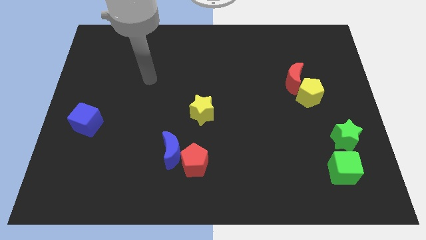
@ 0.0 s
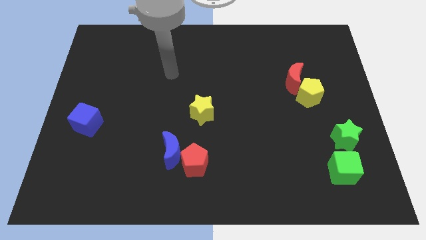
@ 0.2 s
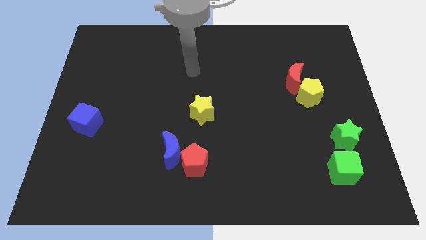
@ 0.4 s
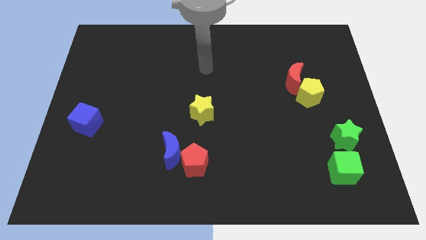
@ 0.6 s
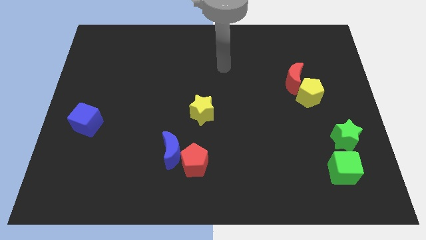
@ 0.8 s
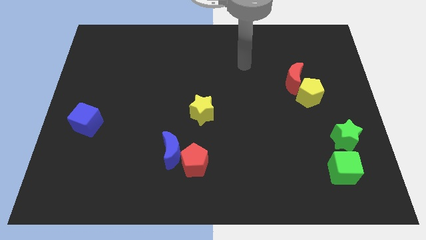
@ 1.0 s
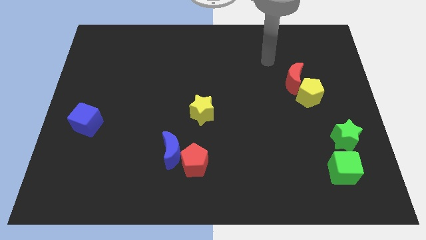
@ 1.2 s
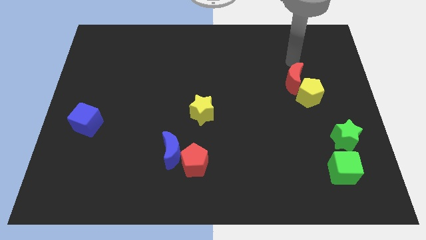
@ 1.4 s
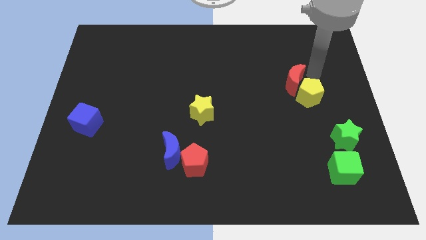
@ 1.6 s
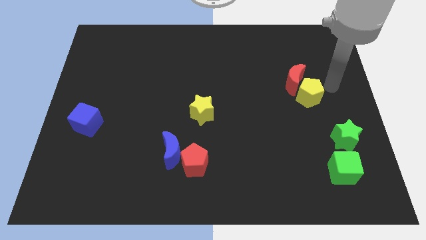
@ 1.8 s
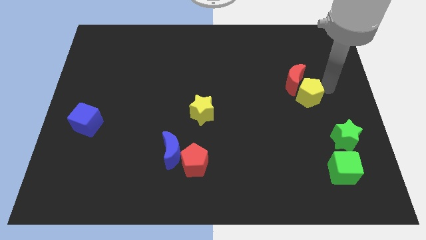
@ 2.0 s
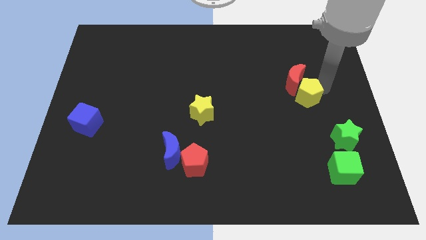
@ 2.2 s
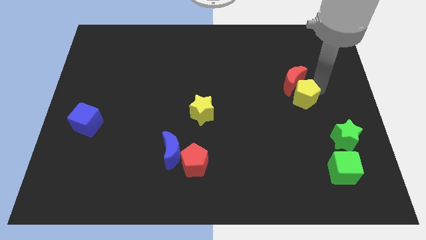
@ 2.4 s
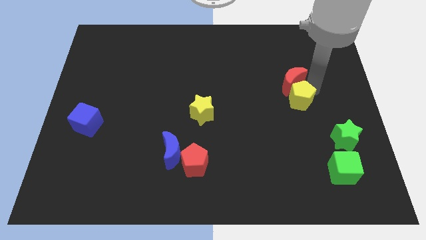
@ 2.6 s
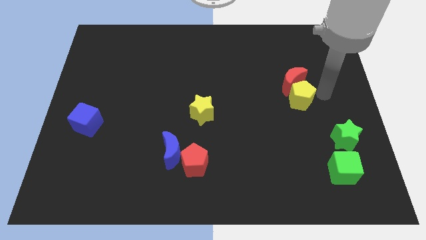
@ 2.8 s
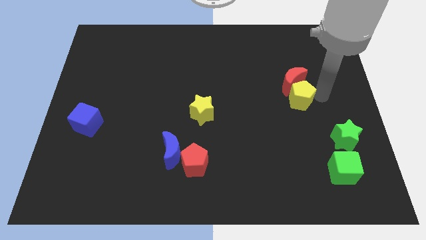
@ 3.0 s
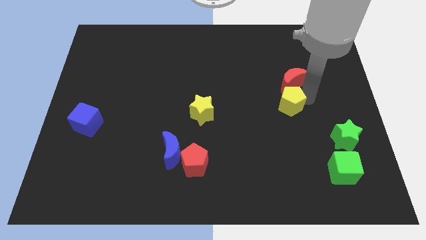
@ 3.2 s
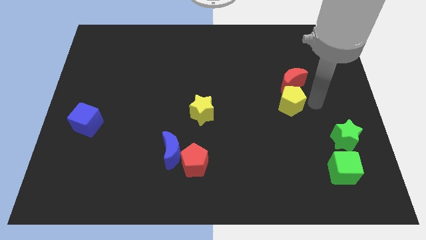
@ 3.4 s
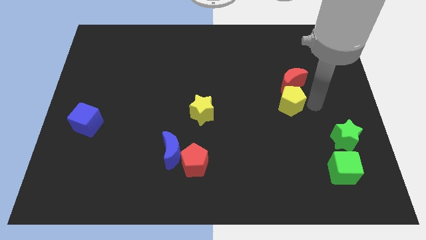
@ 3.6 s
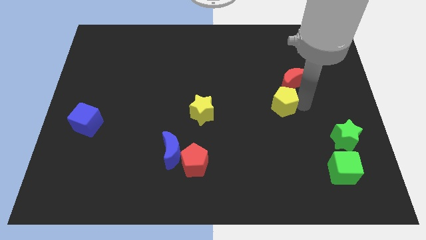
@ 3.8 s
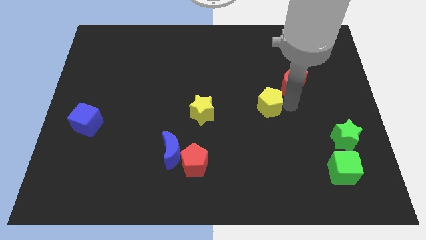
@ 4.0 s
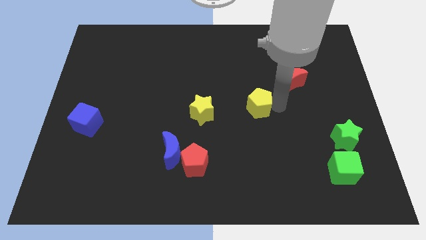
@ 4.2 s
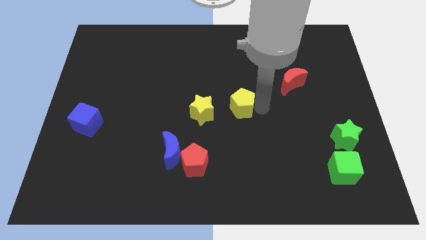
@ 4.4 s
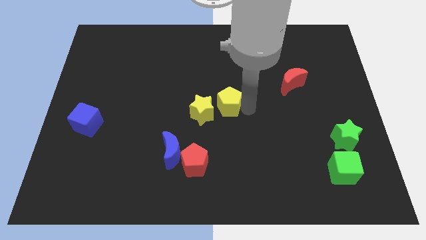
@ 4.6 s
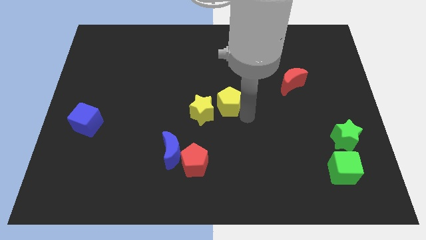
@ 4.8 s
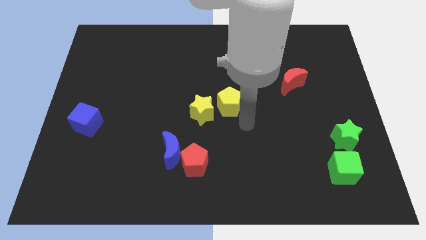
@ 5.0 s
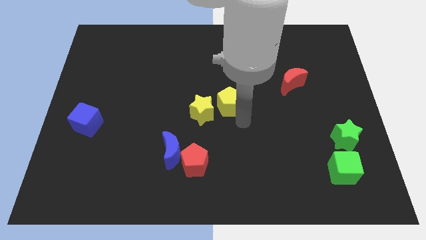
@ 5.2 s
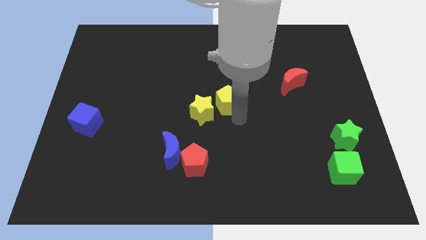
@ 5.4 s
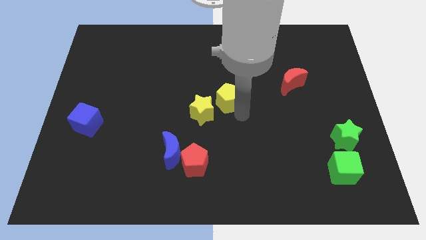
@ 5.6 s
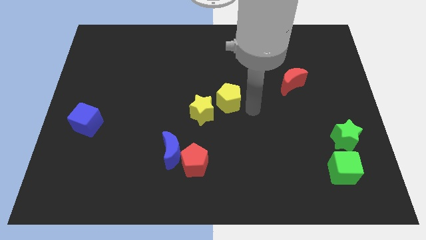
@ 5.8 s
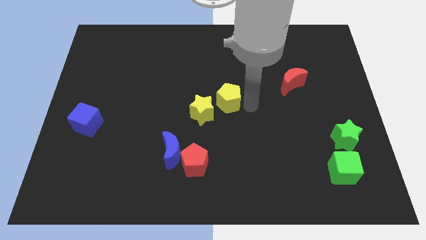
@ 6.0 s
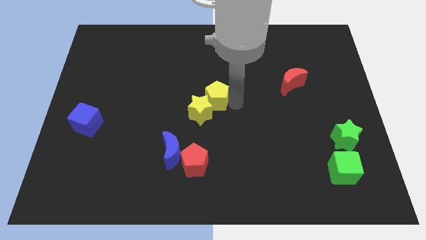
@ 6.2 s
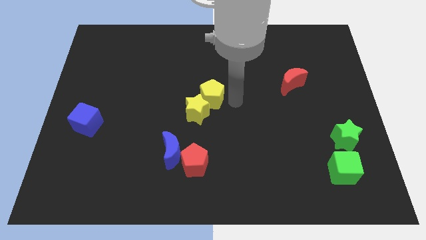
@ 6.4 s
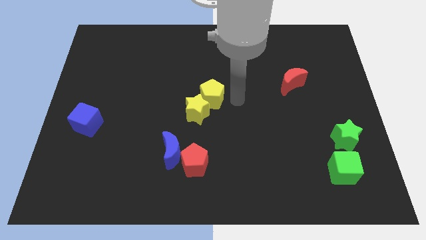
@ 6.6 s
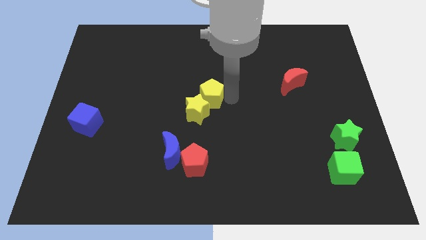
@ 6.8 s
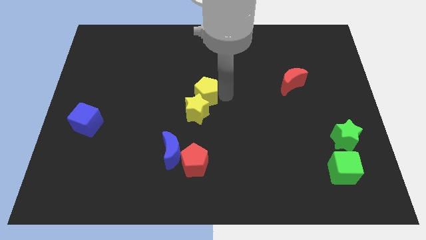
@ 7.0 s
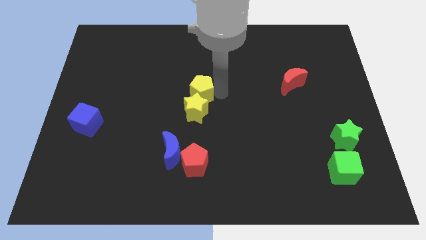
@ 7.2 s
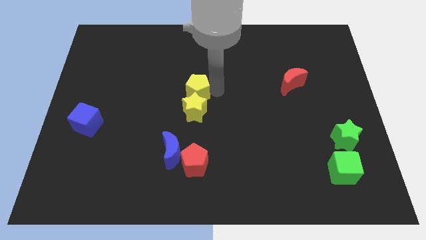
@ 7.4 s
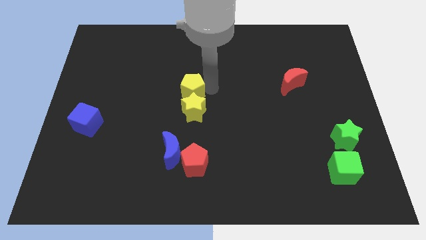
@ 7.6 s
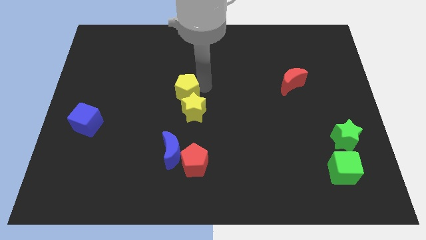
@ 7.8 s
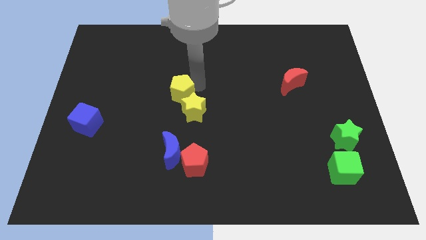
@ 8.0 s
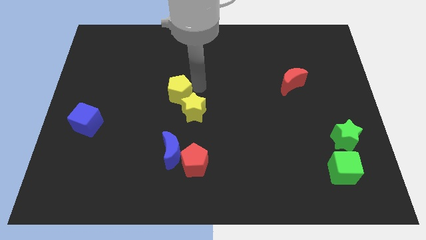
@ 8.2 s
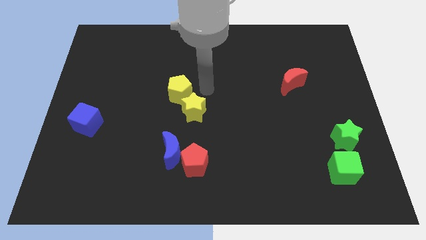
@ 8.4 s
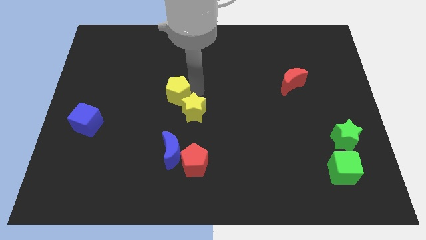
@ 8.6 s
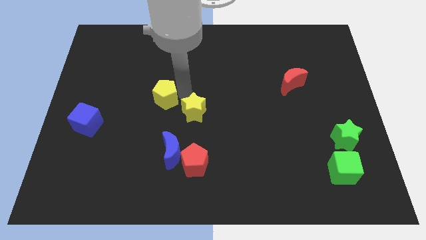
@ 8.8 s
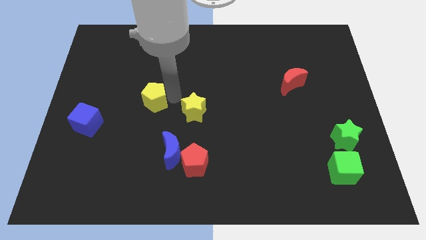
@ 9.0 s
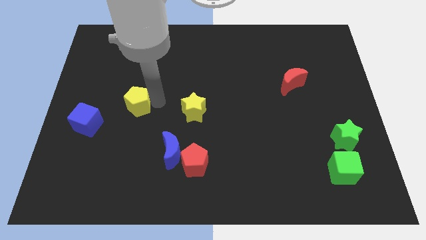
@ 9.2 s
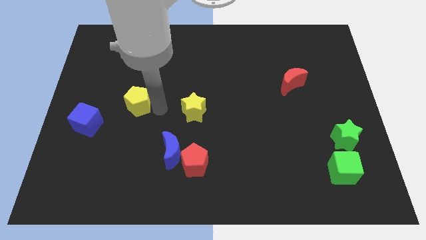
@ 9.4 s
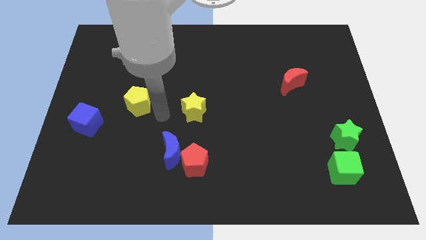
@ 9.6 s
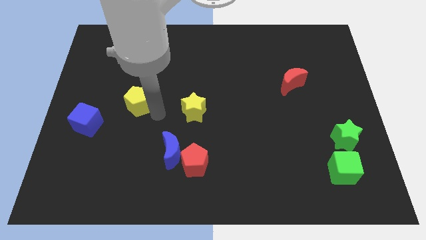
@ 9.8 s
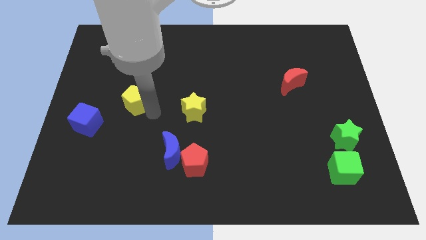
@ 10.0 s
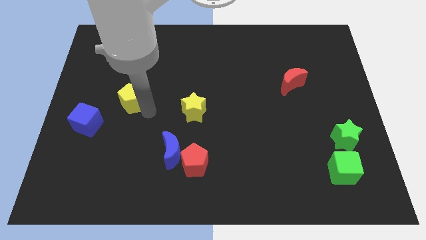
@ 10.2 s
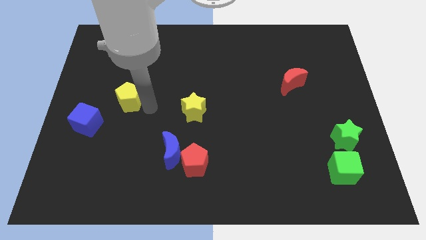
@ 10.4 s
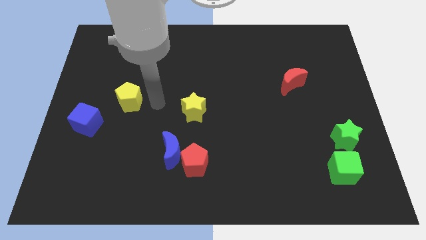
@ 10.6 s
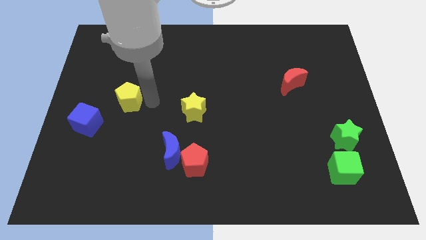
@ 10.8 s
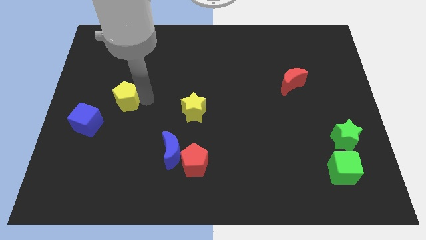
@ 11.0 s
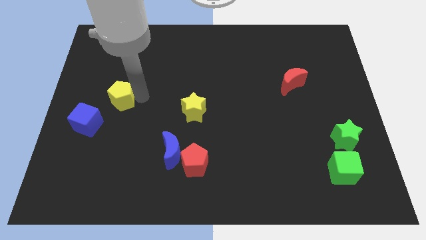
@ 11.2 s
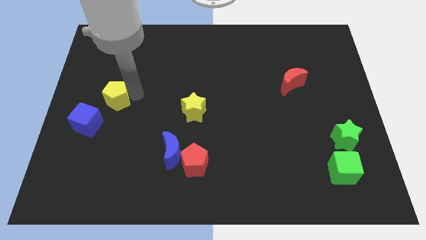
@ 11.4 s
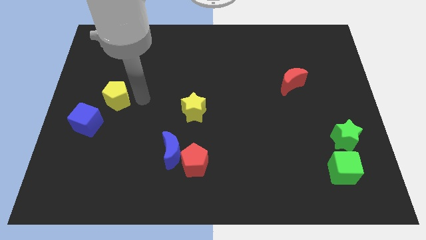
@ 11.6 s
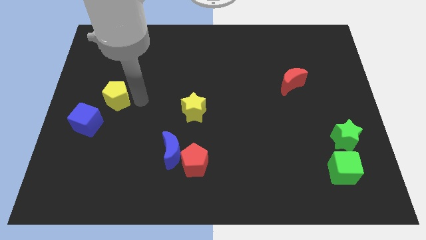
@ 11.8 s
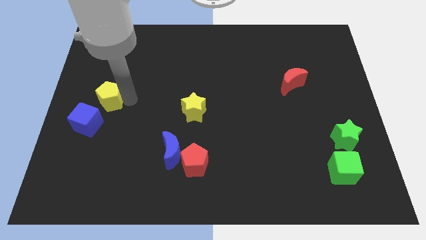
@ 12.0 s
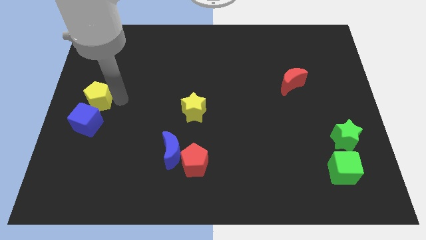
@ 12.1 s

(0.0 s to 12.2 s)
push the yellow pentagon to the center left
